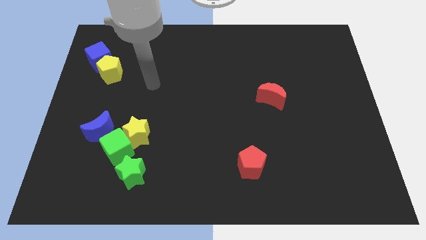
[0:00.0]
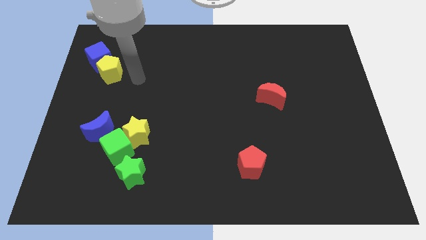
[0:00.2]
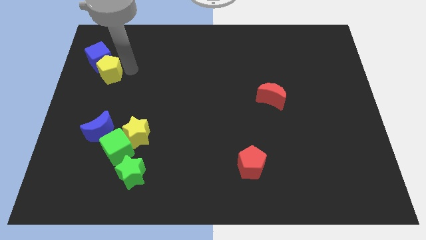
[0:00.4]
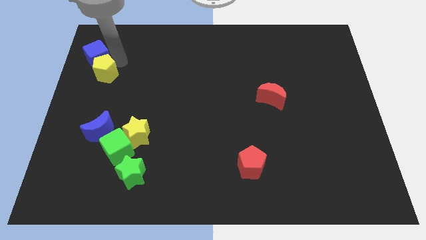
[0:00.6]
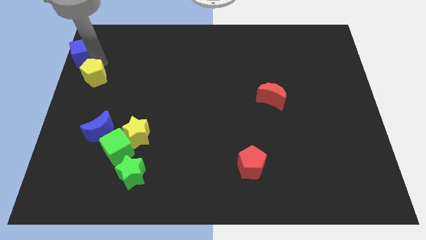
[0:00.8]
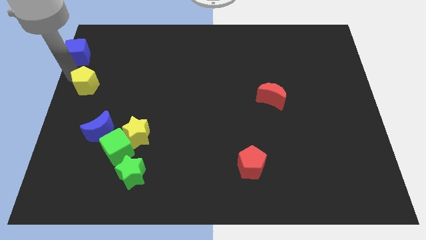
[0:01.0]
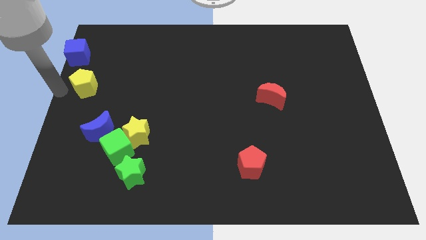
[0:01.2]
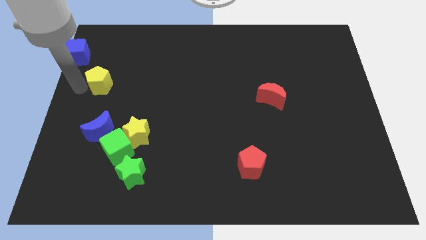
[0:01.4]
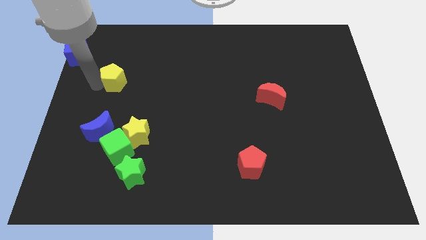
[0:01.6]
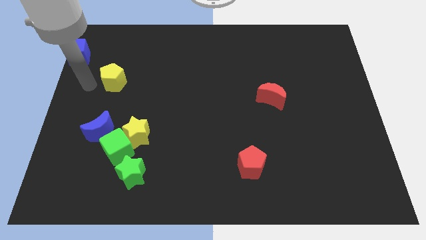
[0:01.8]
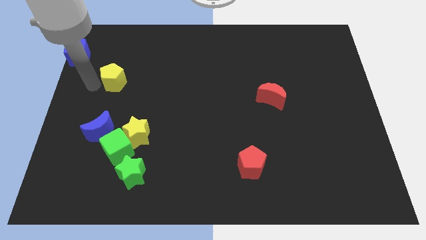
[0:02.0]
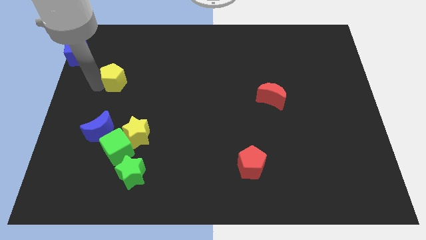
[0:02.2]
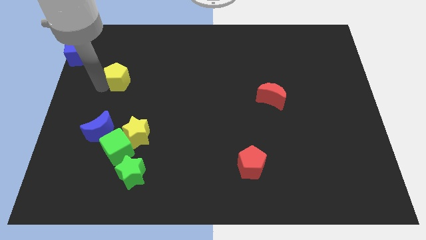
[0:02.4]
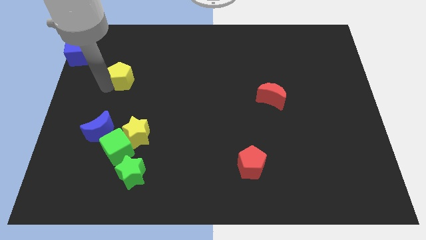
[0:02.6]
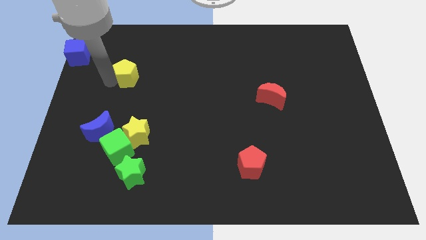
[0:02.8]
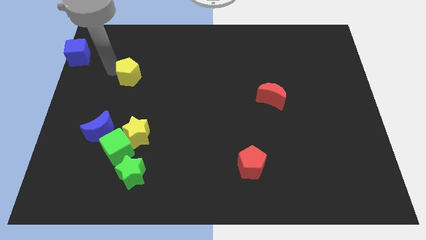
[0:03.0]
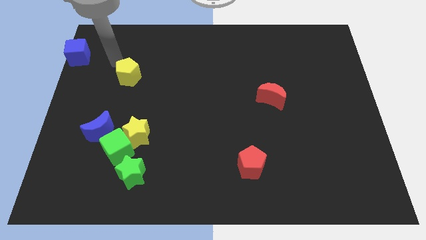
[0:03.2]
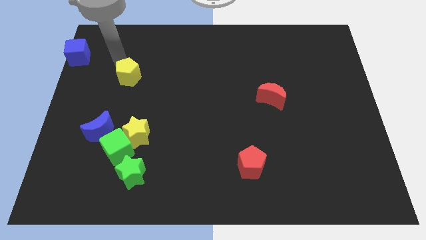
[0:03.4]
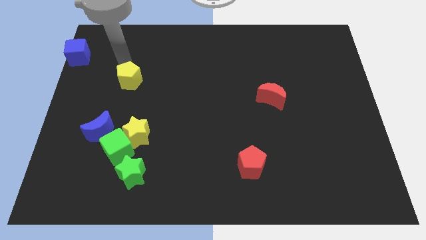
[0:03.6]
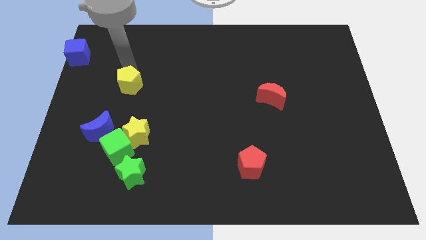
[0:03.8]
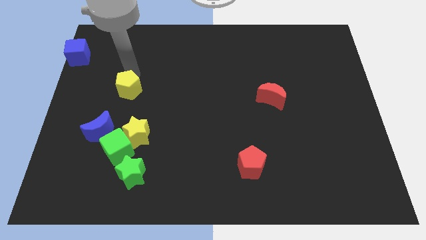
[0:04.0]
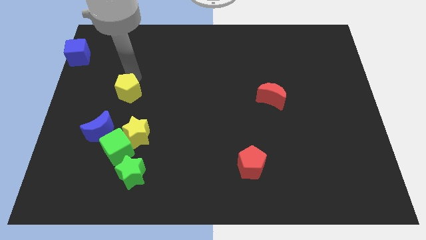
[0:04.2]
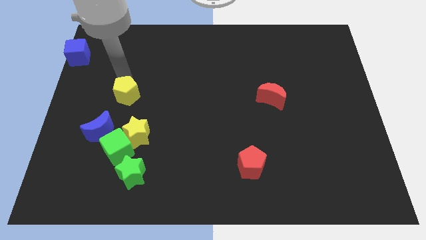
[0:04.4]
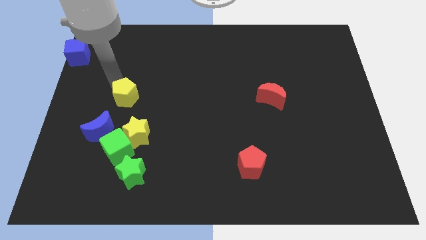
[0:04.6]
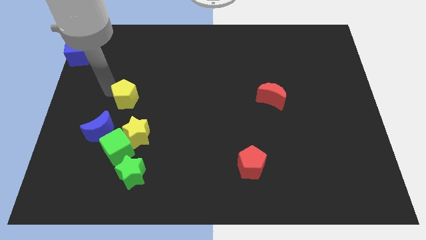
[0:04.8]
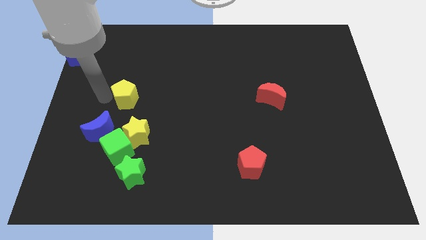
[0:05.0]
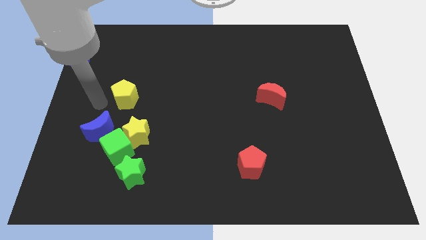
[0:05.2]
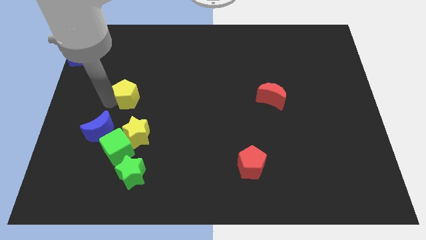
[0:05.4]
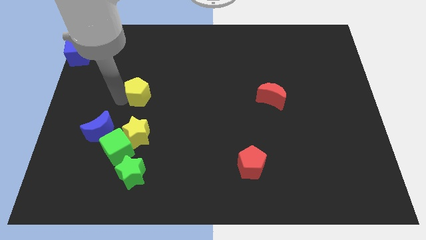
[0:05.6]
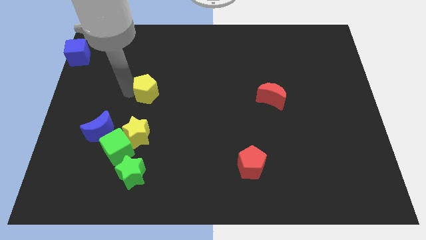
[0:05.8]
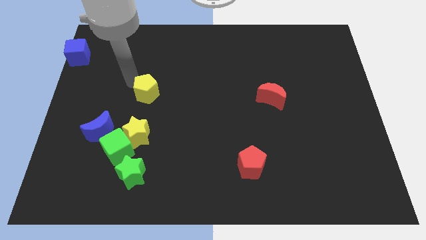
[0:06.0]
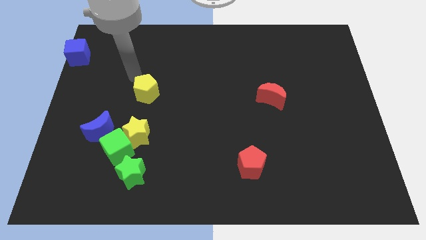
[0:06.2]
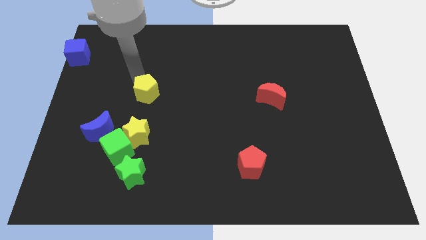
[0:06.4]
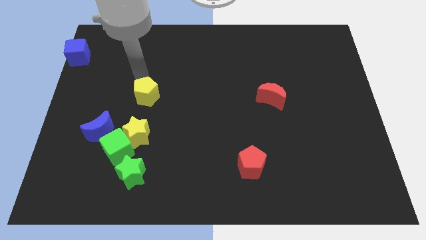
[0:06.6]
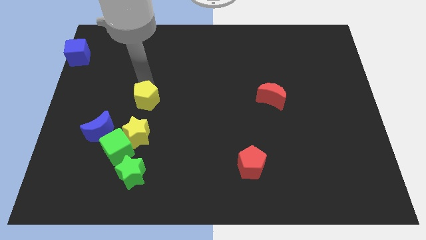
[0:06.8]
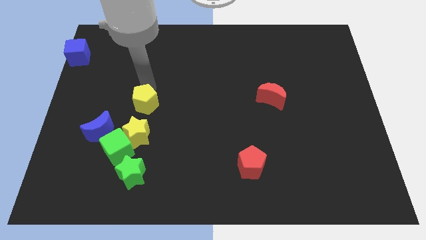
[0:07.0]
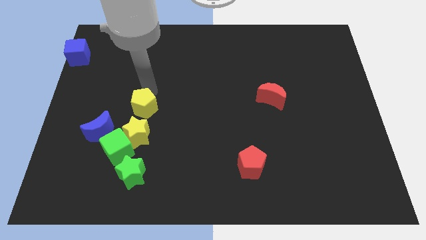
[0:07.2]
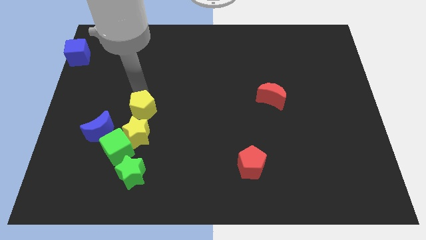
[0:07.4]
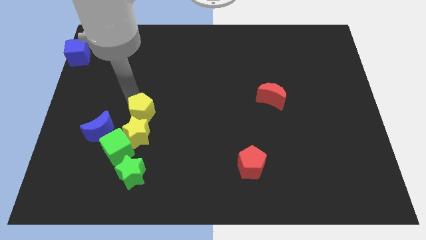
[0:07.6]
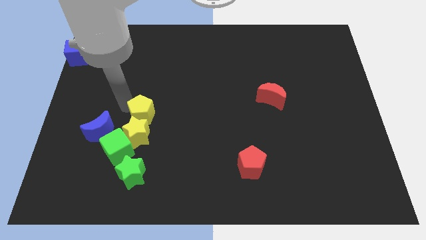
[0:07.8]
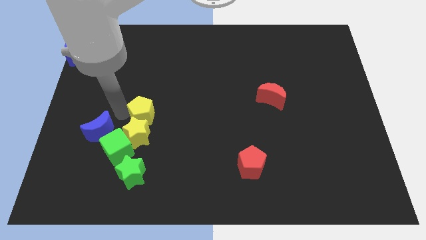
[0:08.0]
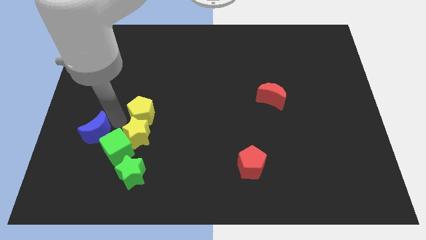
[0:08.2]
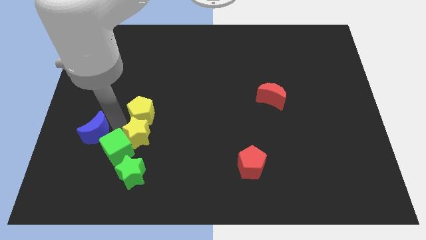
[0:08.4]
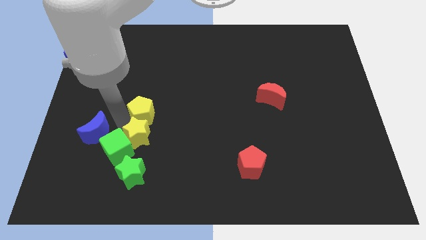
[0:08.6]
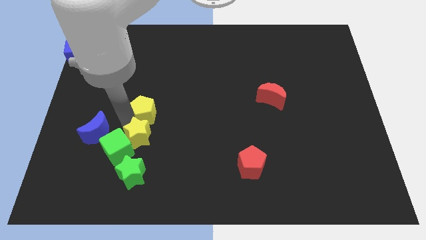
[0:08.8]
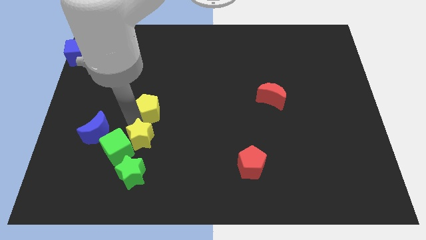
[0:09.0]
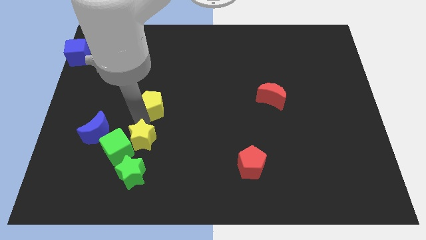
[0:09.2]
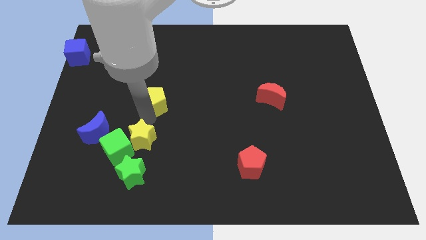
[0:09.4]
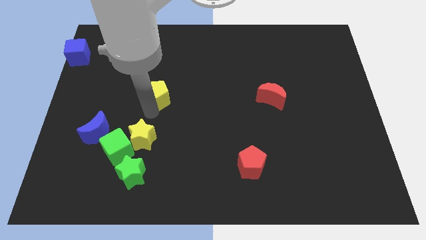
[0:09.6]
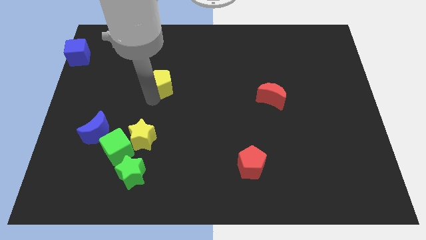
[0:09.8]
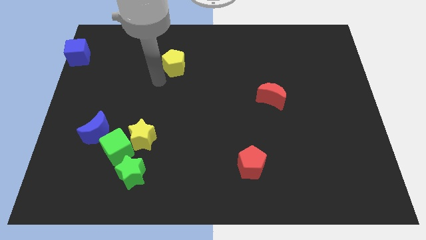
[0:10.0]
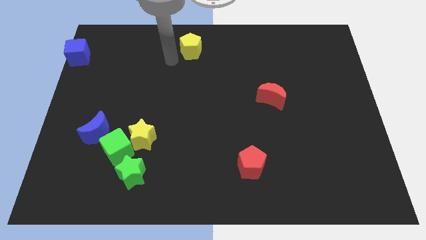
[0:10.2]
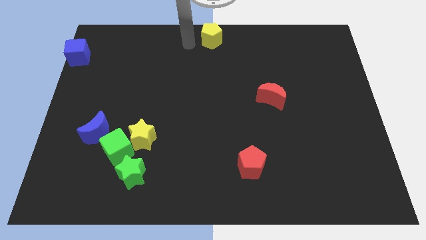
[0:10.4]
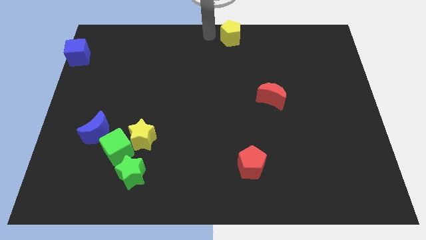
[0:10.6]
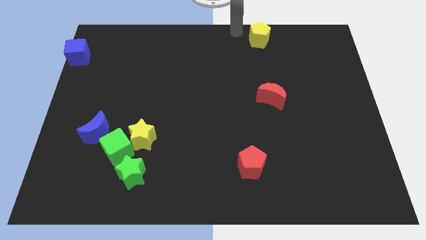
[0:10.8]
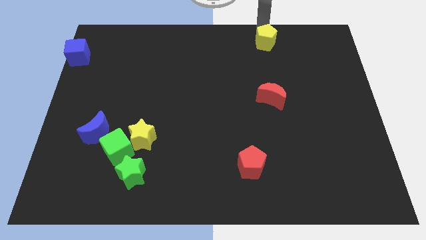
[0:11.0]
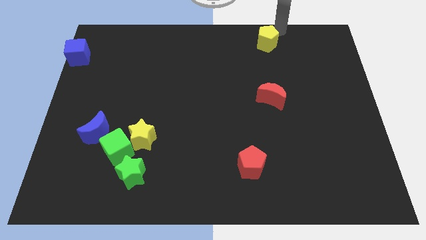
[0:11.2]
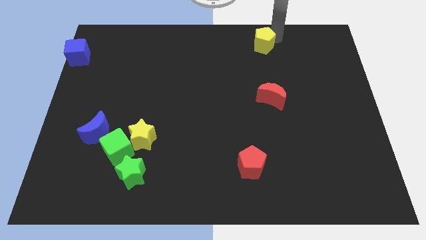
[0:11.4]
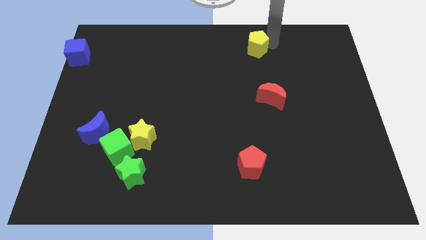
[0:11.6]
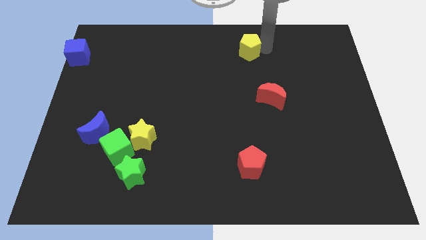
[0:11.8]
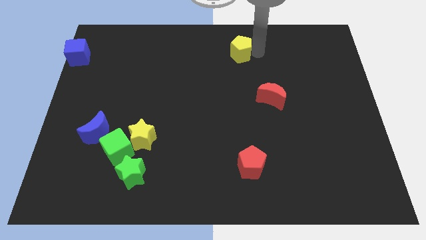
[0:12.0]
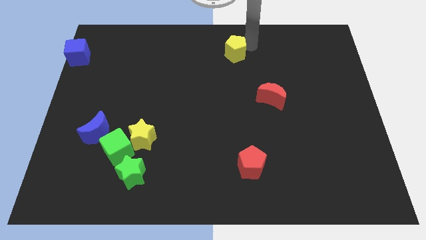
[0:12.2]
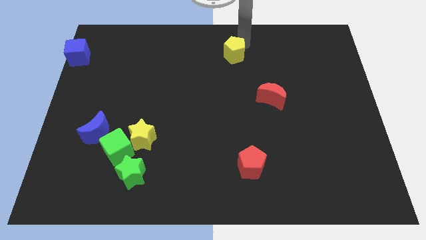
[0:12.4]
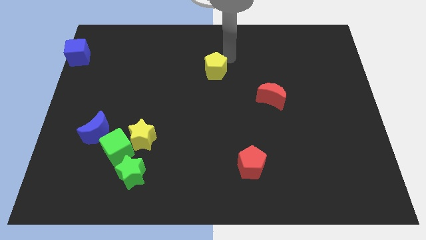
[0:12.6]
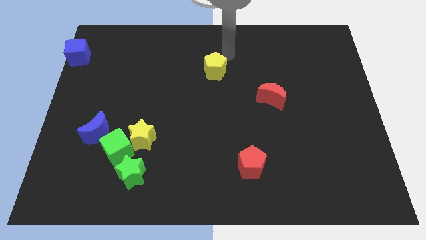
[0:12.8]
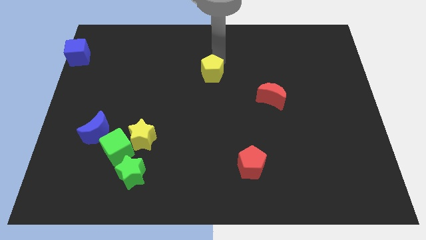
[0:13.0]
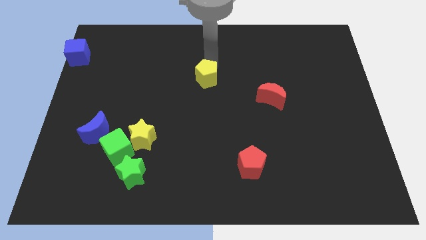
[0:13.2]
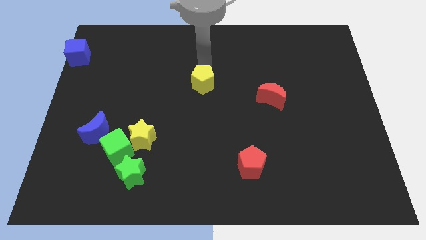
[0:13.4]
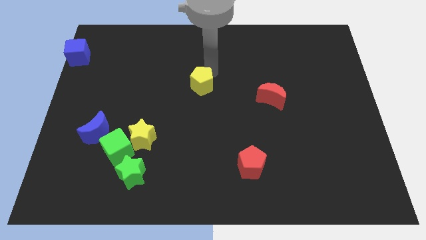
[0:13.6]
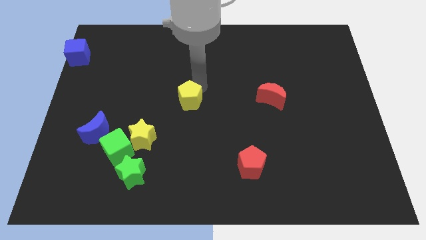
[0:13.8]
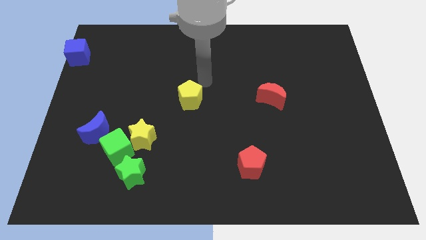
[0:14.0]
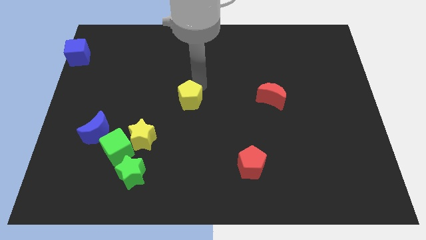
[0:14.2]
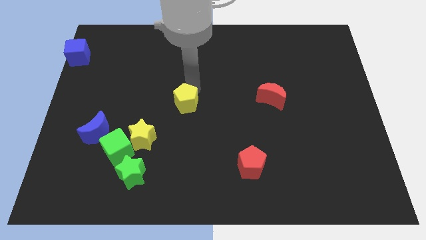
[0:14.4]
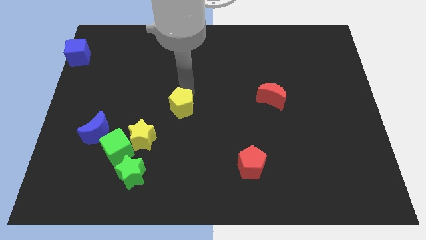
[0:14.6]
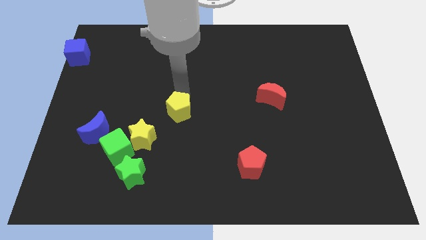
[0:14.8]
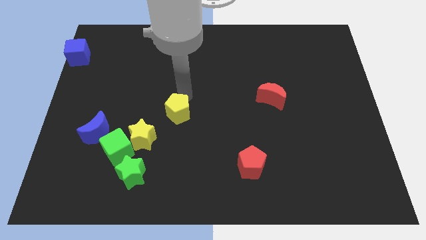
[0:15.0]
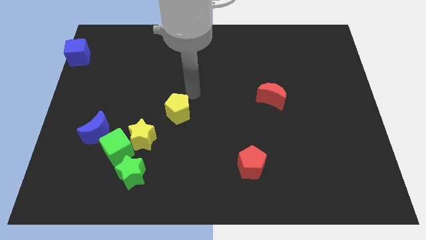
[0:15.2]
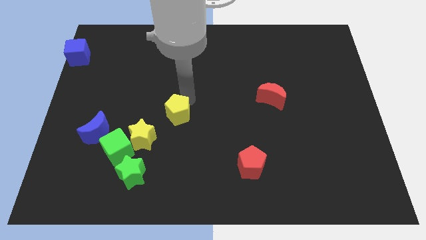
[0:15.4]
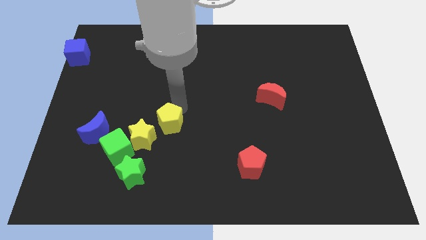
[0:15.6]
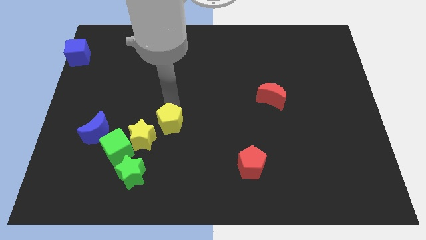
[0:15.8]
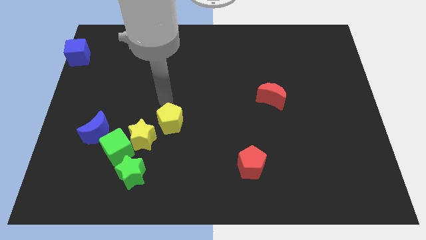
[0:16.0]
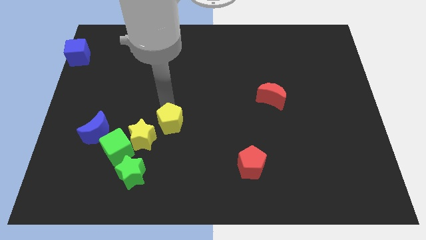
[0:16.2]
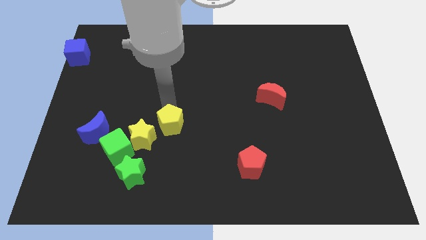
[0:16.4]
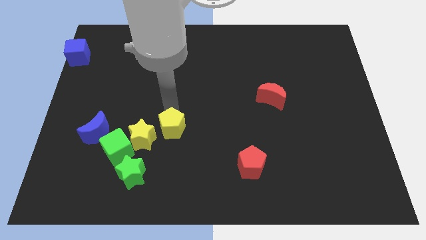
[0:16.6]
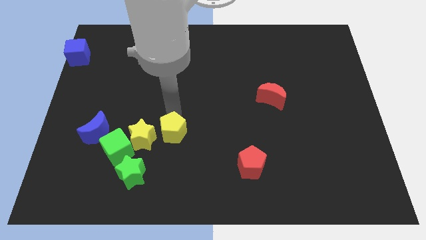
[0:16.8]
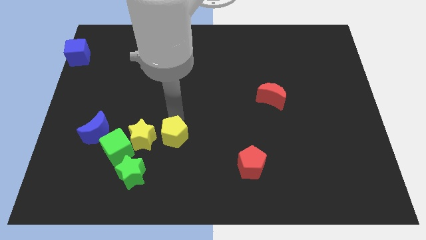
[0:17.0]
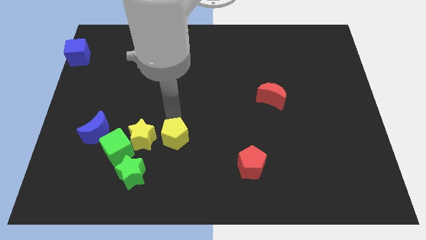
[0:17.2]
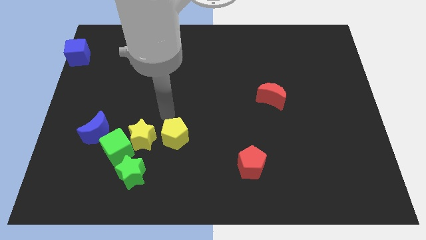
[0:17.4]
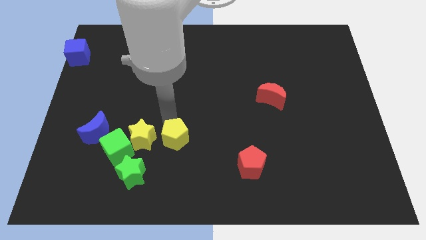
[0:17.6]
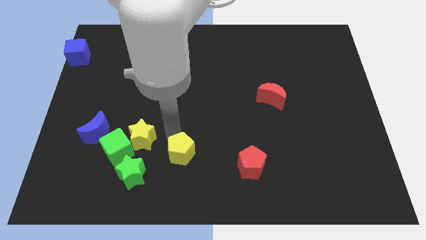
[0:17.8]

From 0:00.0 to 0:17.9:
move the yellow pentagon to the left of the red pentagon
